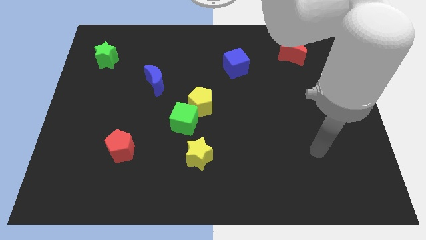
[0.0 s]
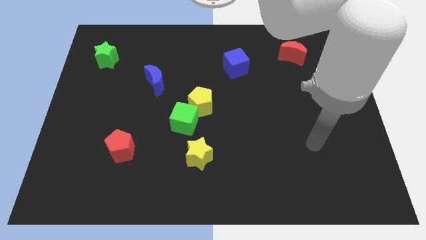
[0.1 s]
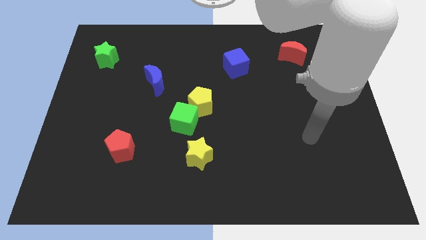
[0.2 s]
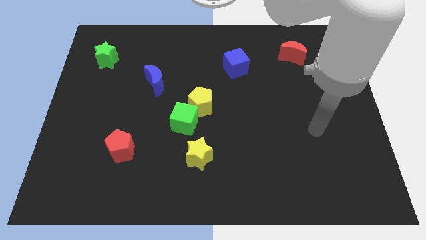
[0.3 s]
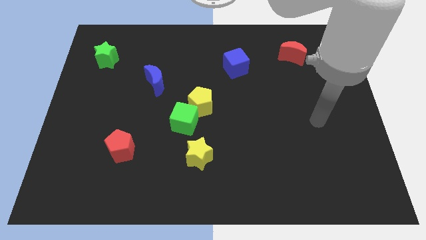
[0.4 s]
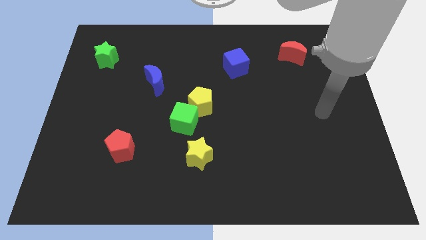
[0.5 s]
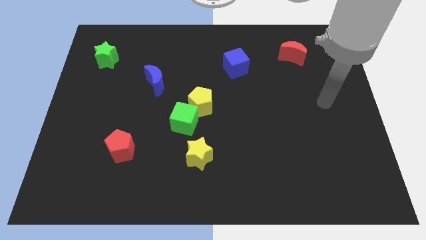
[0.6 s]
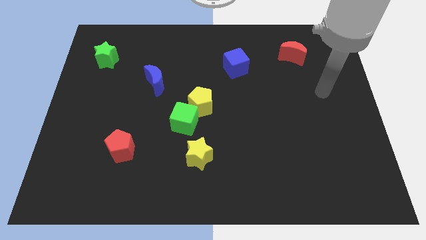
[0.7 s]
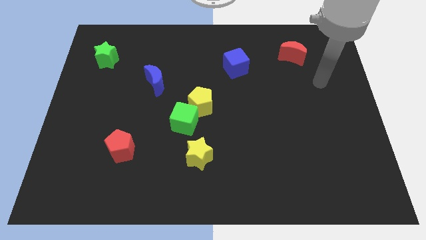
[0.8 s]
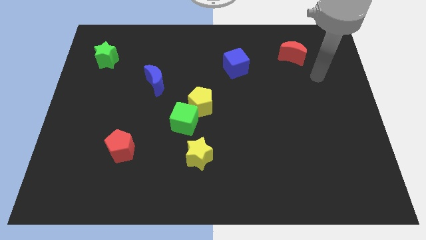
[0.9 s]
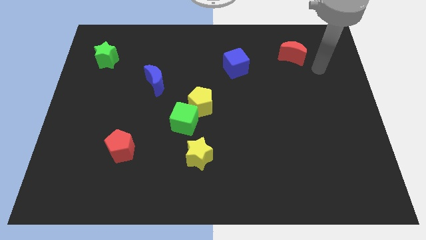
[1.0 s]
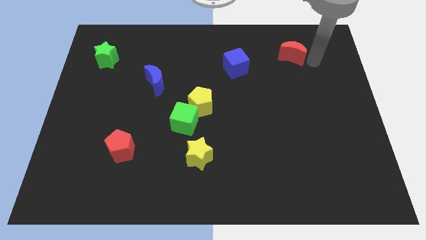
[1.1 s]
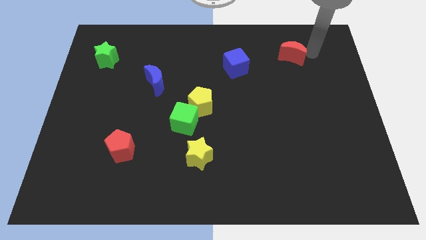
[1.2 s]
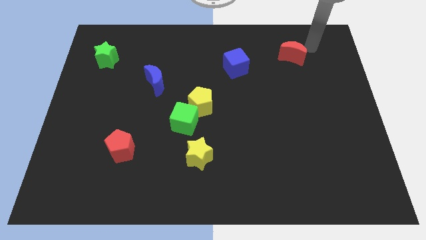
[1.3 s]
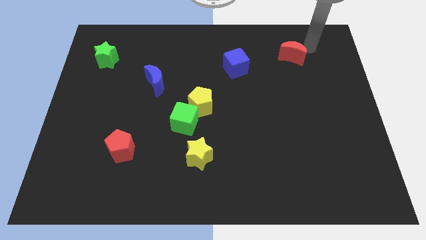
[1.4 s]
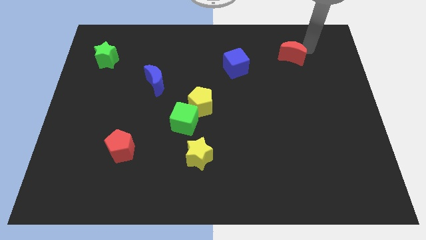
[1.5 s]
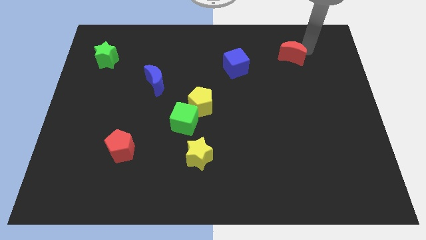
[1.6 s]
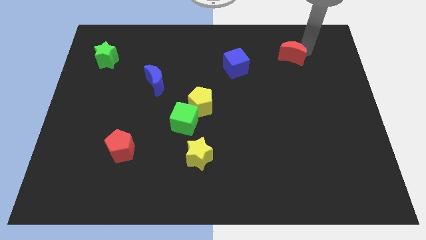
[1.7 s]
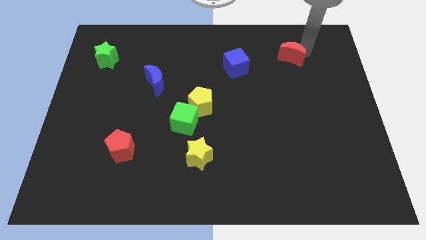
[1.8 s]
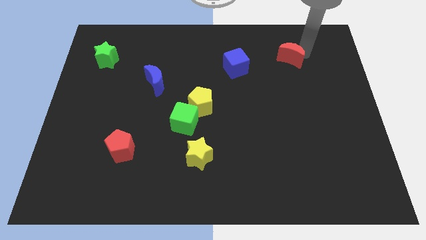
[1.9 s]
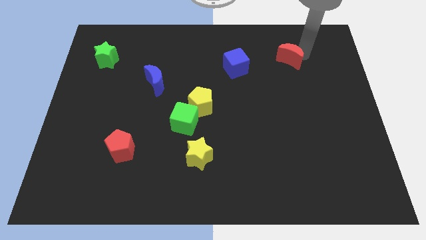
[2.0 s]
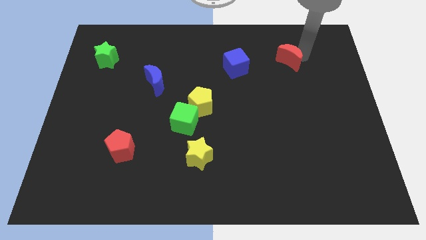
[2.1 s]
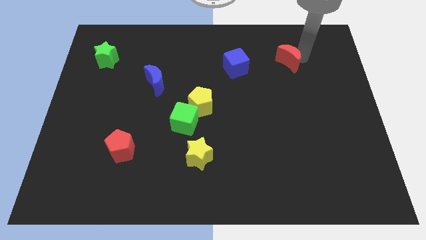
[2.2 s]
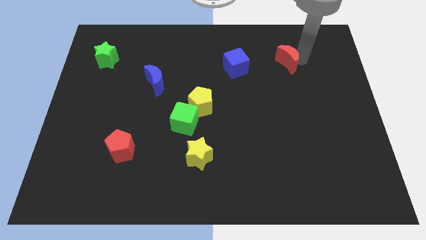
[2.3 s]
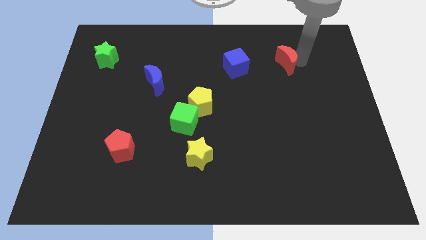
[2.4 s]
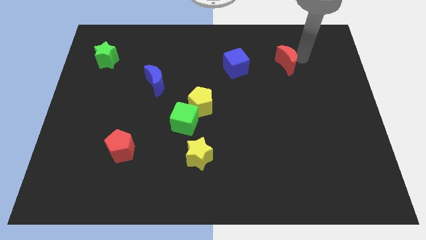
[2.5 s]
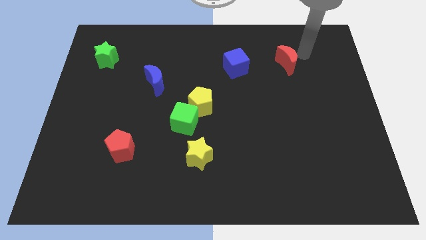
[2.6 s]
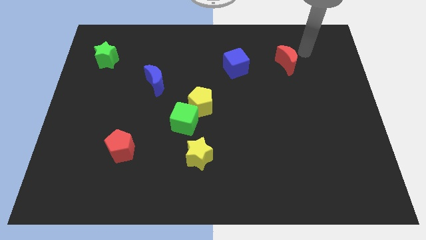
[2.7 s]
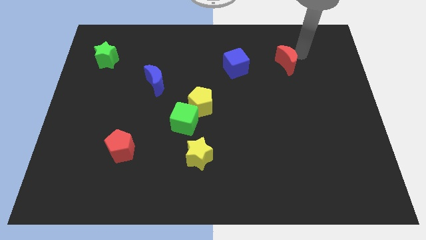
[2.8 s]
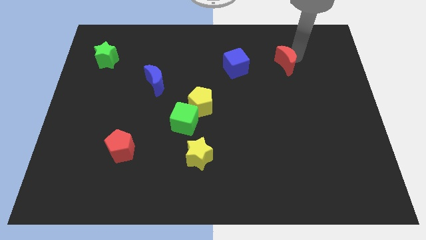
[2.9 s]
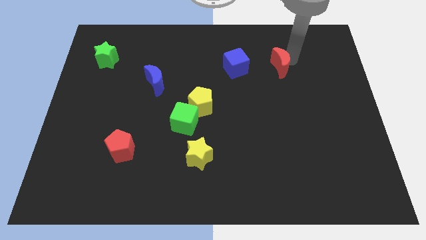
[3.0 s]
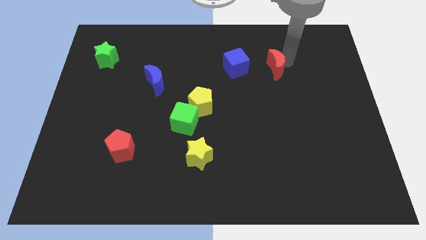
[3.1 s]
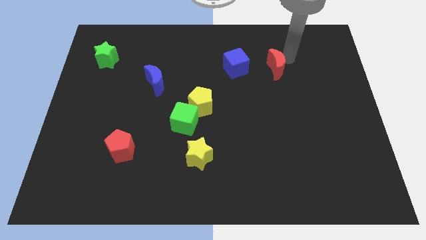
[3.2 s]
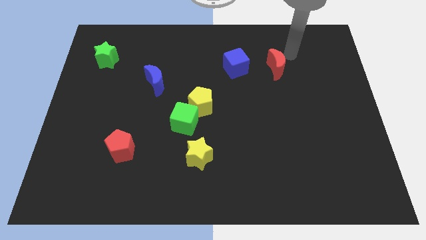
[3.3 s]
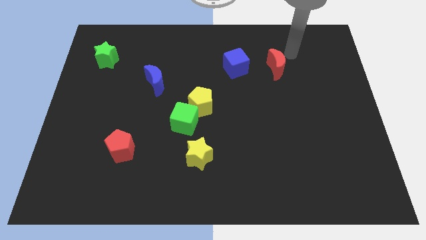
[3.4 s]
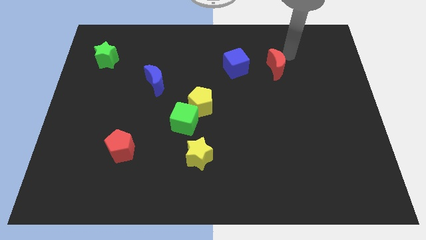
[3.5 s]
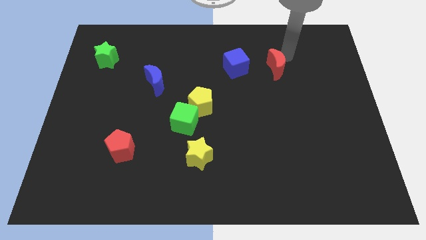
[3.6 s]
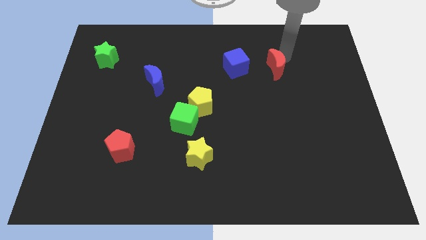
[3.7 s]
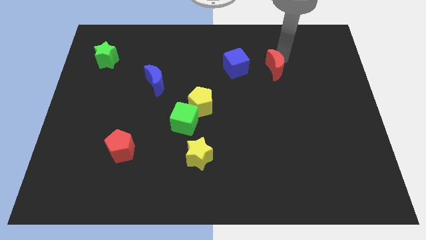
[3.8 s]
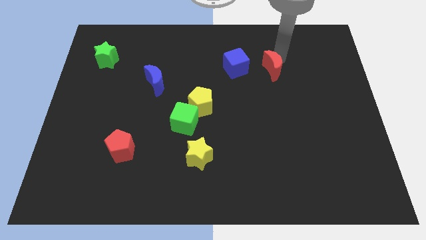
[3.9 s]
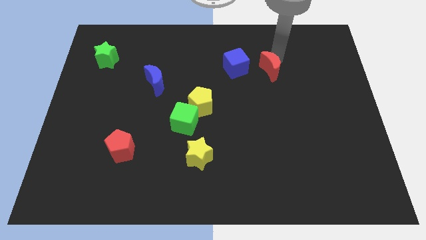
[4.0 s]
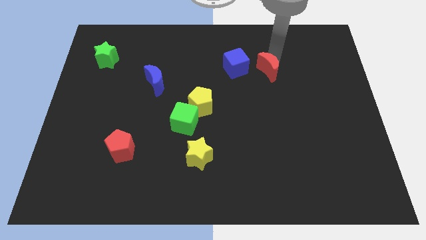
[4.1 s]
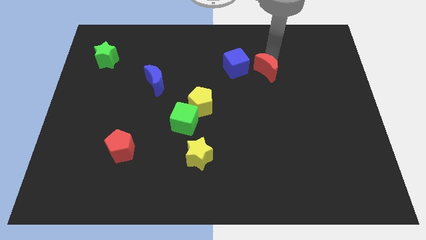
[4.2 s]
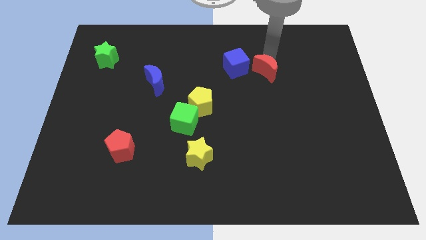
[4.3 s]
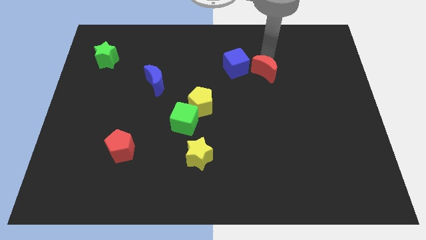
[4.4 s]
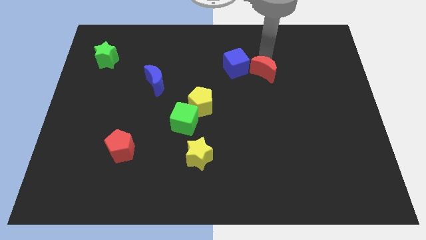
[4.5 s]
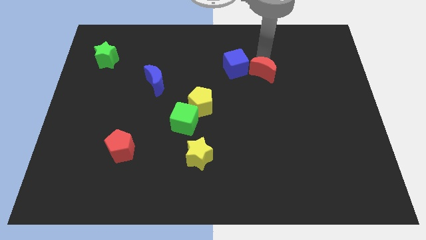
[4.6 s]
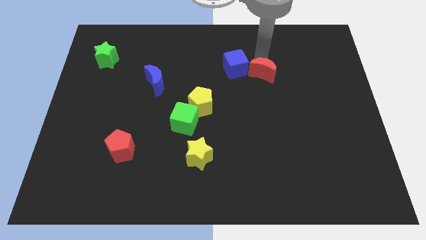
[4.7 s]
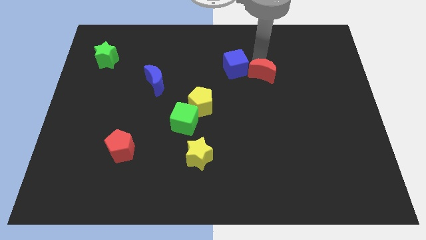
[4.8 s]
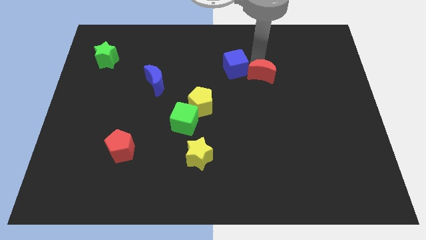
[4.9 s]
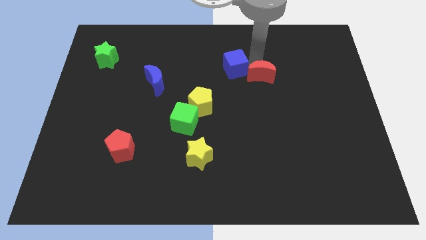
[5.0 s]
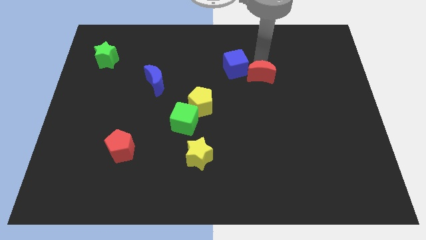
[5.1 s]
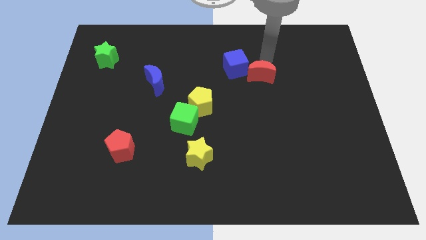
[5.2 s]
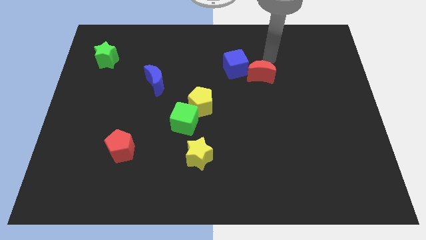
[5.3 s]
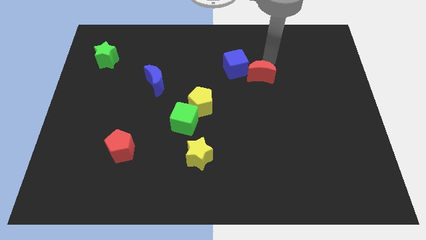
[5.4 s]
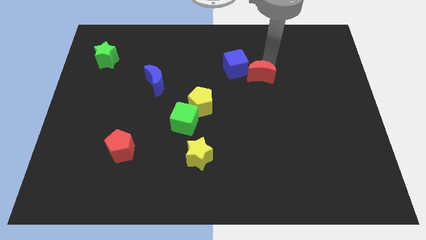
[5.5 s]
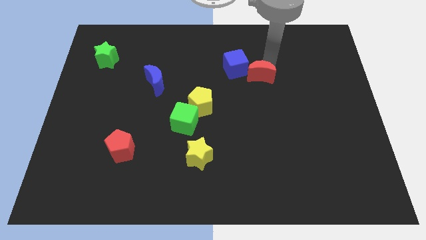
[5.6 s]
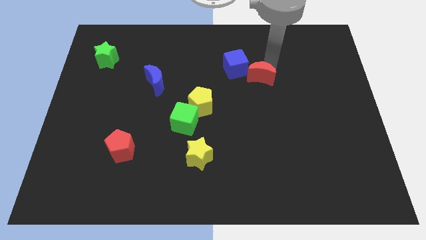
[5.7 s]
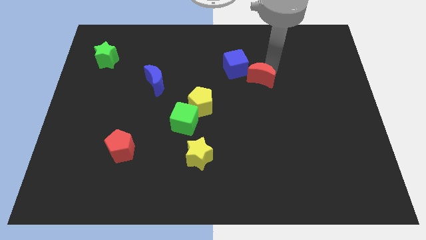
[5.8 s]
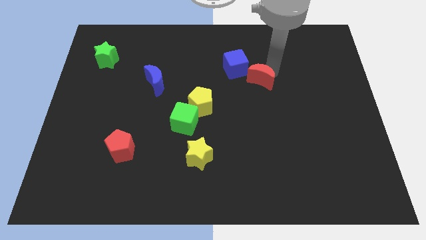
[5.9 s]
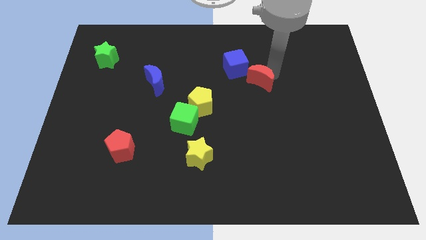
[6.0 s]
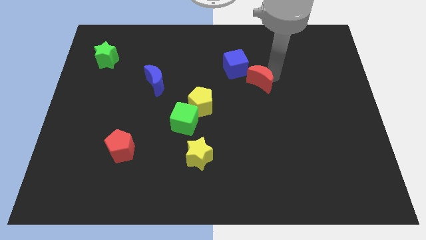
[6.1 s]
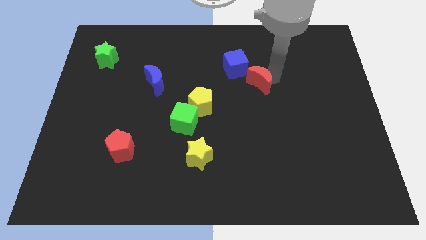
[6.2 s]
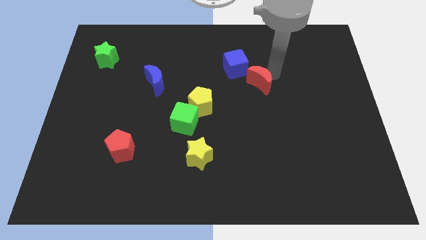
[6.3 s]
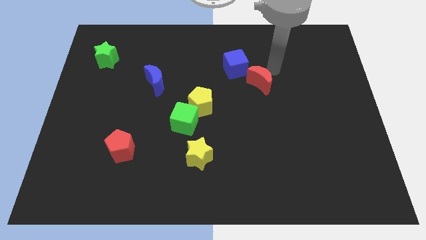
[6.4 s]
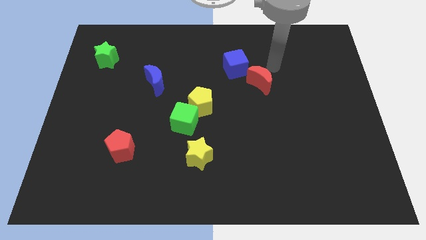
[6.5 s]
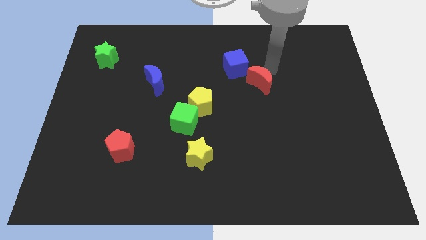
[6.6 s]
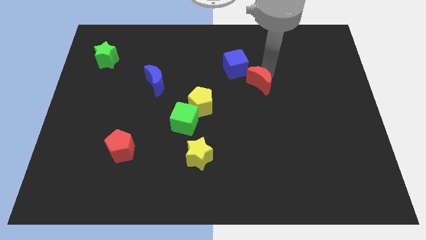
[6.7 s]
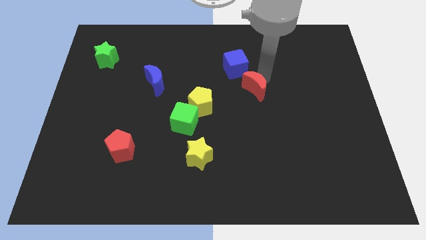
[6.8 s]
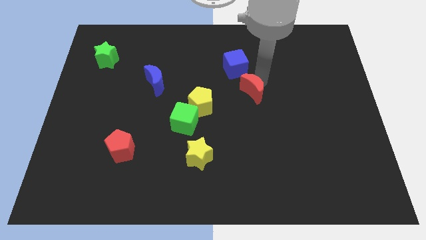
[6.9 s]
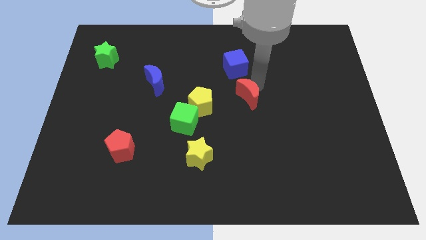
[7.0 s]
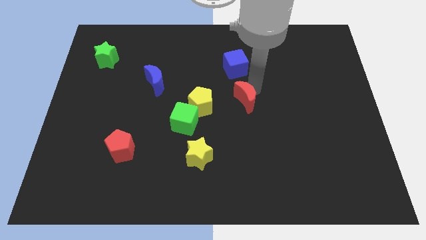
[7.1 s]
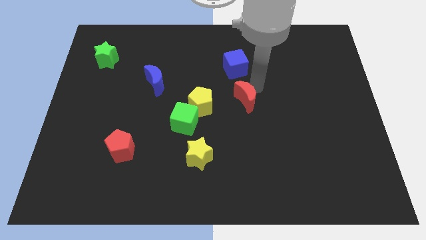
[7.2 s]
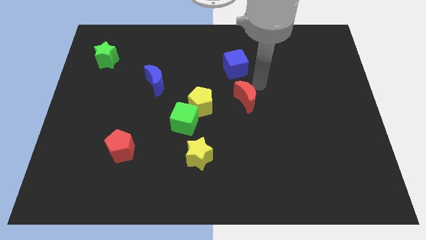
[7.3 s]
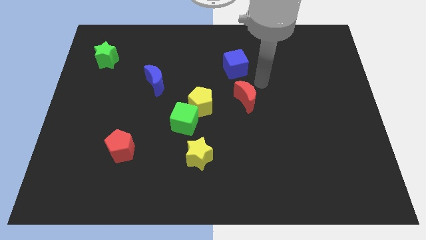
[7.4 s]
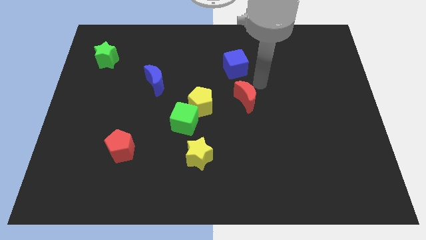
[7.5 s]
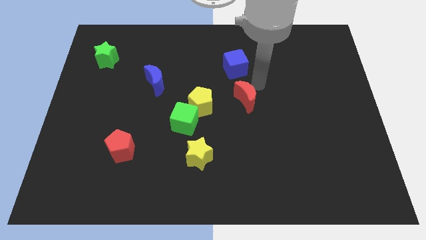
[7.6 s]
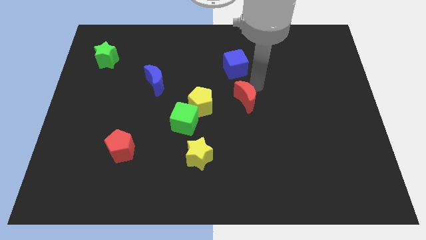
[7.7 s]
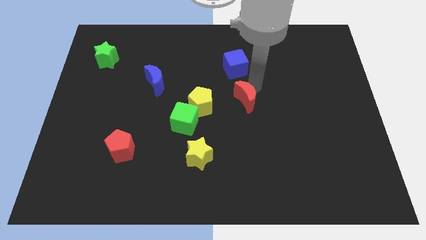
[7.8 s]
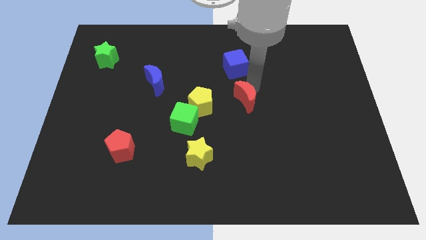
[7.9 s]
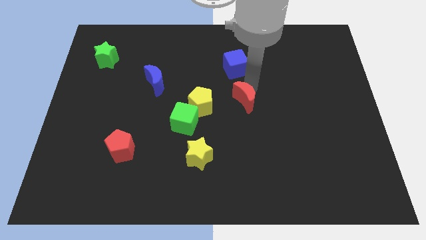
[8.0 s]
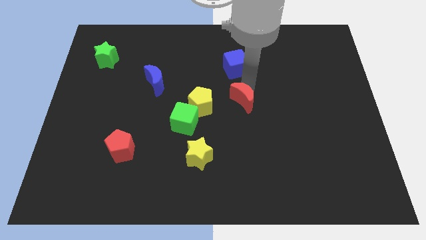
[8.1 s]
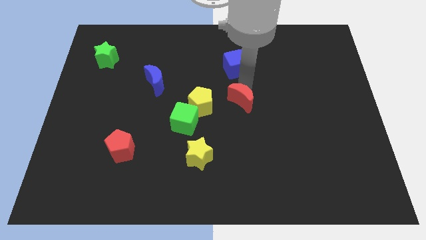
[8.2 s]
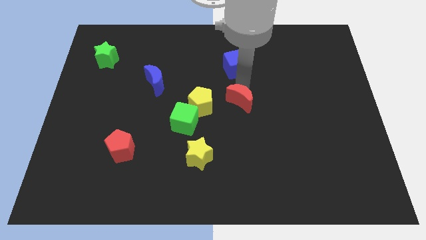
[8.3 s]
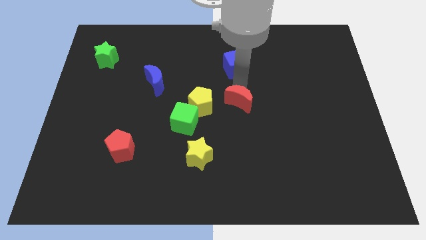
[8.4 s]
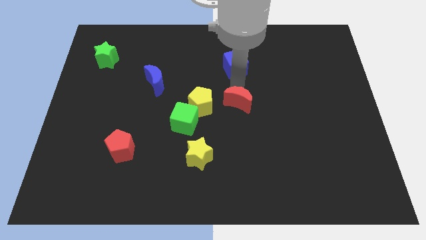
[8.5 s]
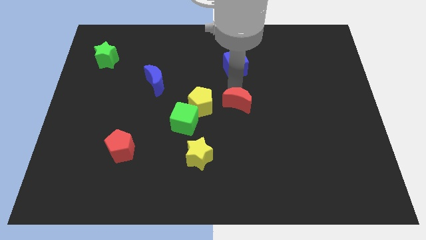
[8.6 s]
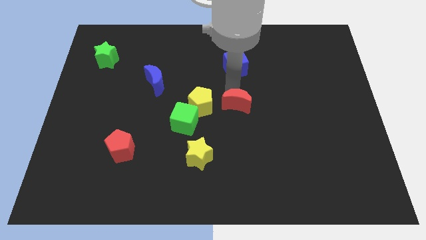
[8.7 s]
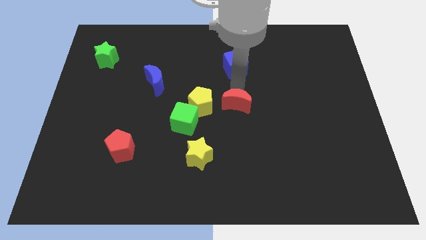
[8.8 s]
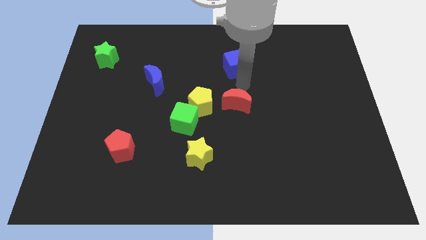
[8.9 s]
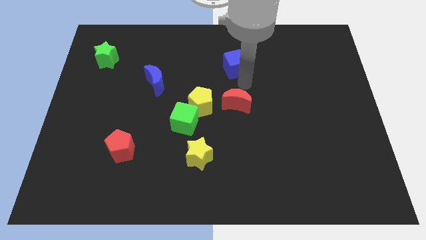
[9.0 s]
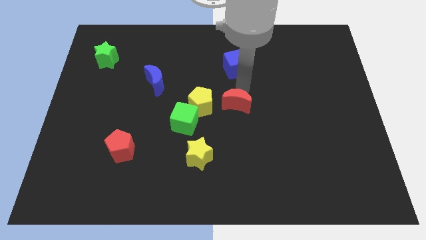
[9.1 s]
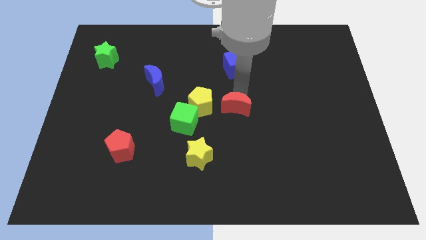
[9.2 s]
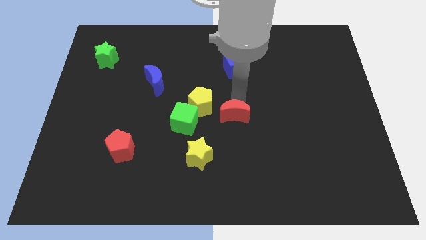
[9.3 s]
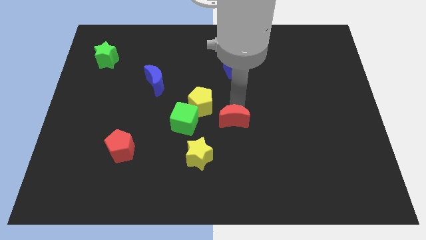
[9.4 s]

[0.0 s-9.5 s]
put the red moon to the top right side of the yellow star
